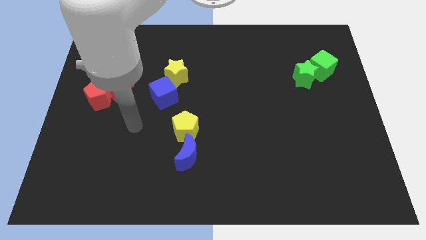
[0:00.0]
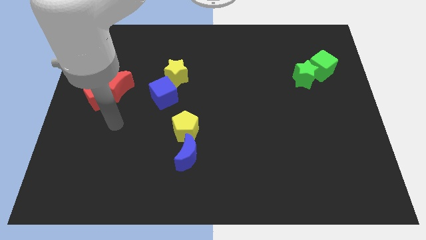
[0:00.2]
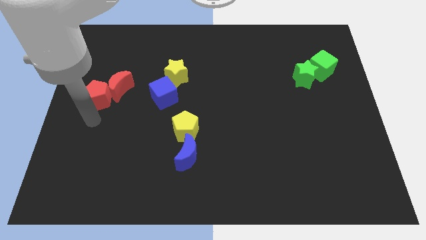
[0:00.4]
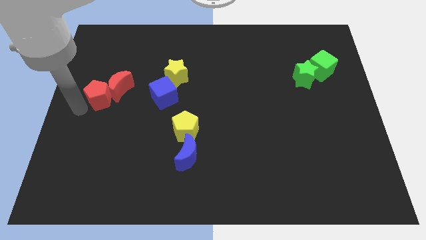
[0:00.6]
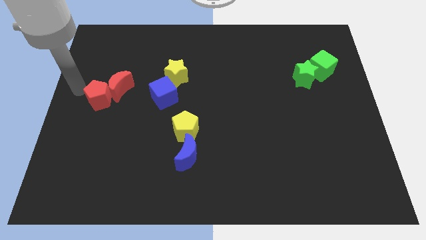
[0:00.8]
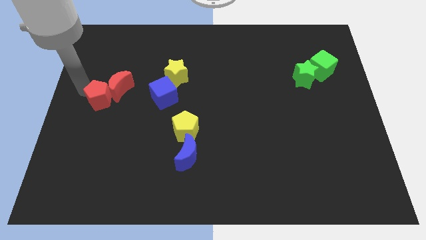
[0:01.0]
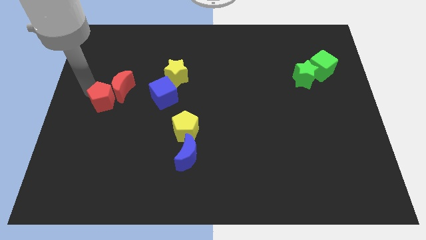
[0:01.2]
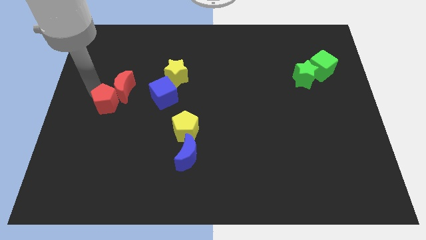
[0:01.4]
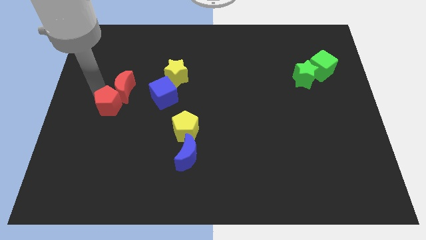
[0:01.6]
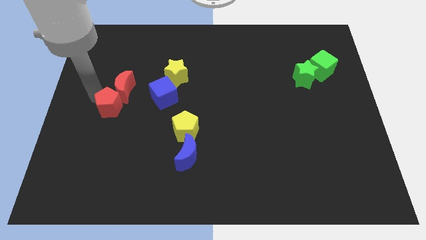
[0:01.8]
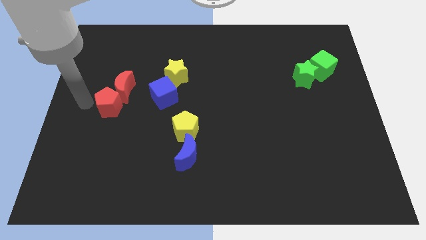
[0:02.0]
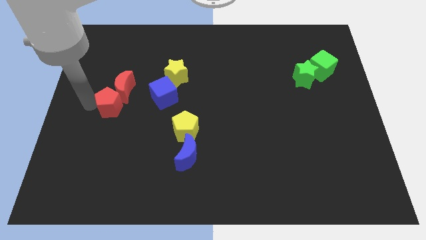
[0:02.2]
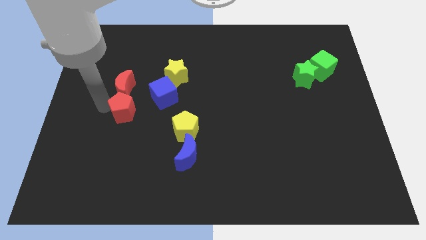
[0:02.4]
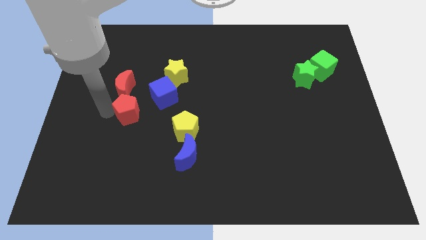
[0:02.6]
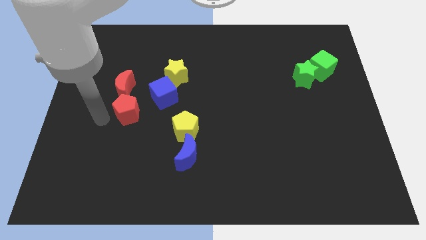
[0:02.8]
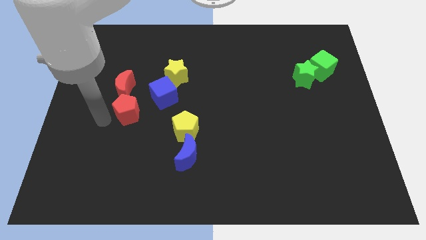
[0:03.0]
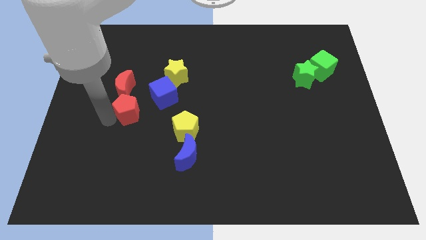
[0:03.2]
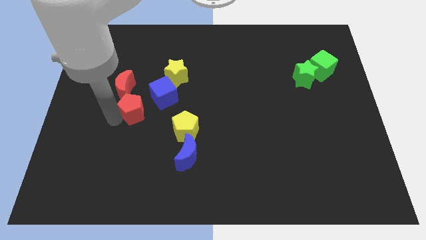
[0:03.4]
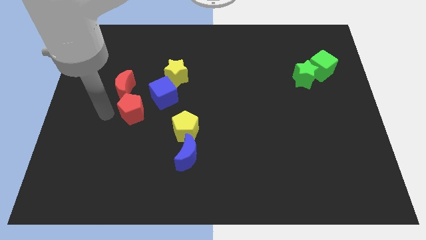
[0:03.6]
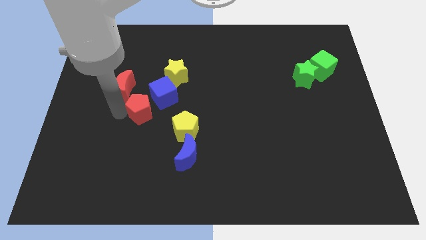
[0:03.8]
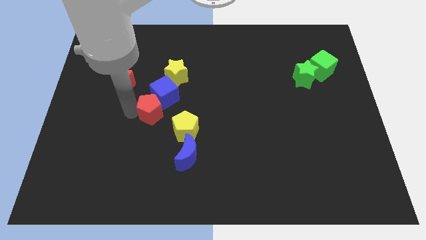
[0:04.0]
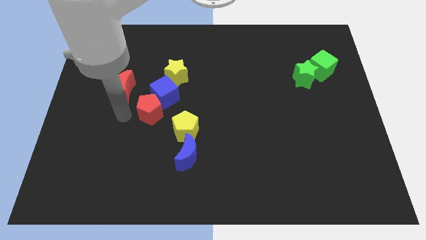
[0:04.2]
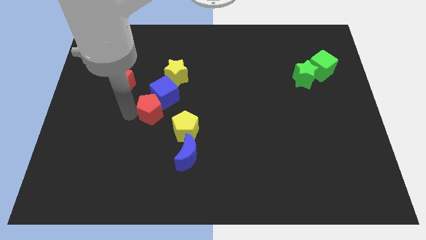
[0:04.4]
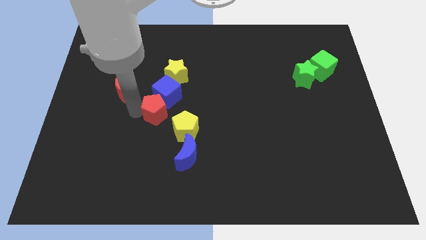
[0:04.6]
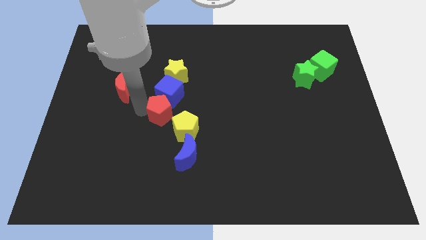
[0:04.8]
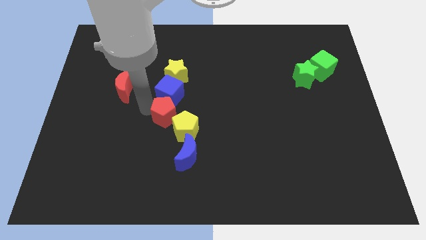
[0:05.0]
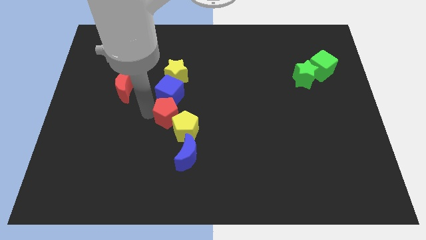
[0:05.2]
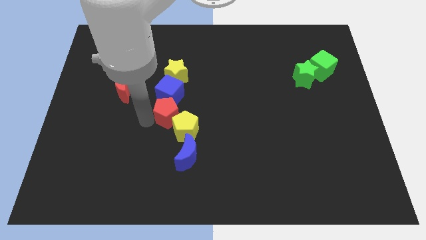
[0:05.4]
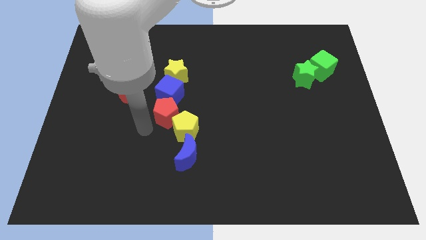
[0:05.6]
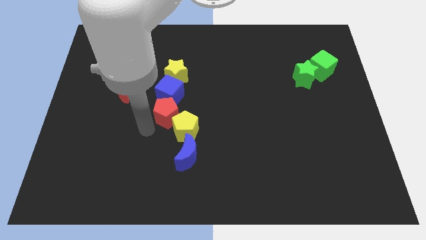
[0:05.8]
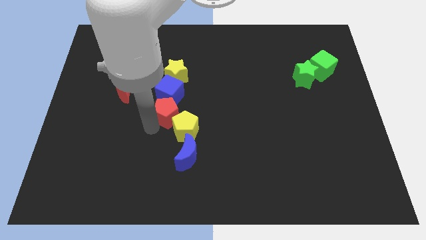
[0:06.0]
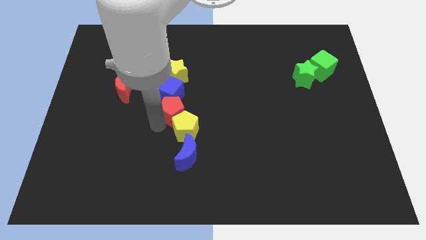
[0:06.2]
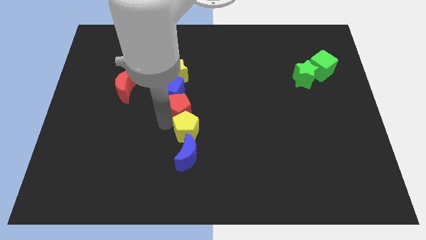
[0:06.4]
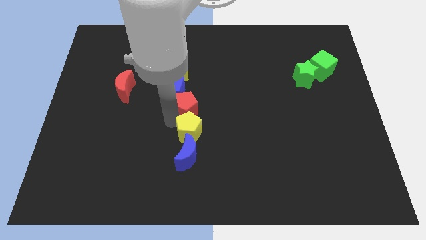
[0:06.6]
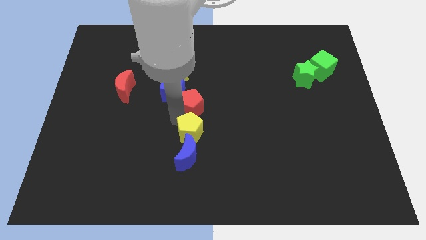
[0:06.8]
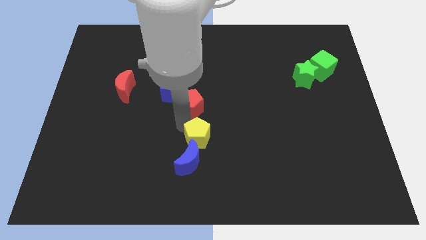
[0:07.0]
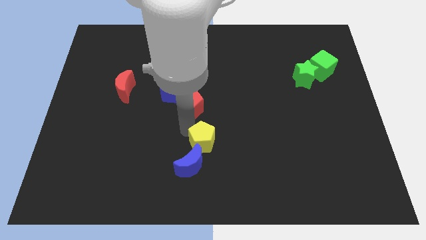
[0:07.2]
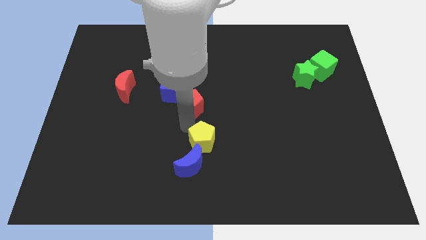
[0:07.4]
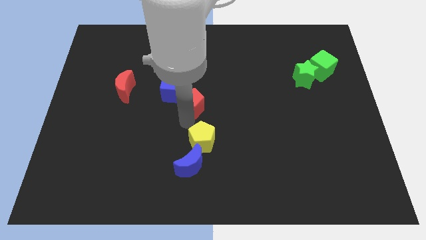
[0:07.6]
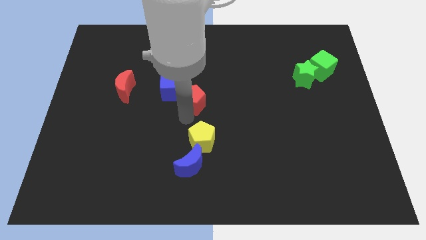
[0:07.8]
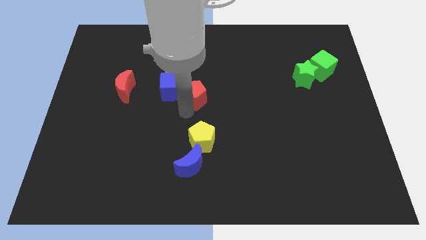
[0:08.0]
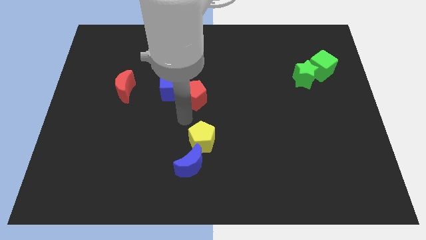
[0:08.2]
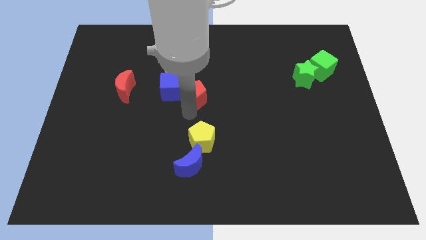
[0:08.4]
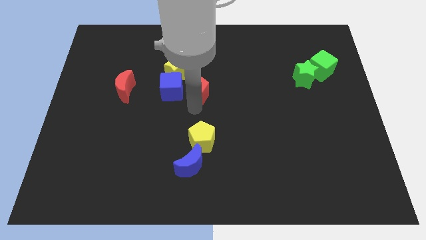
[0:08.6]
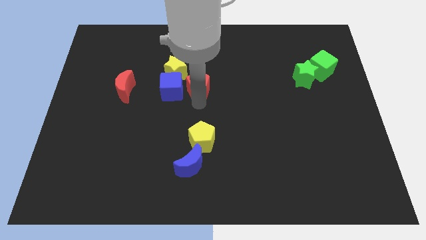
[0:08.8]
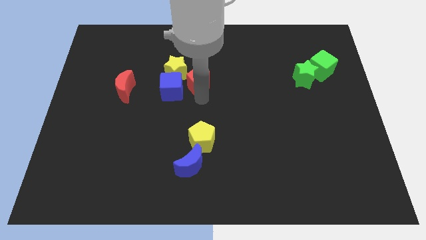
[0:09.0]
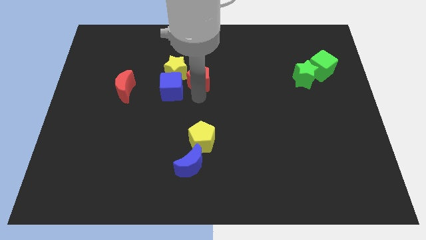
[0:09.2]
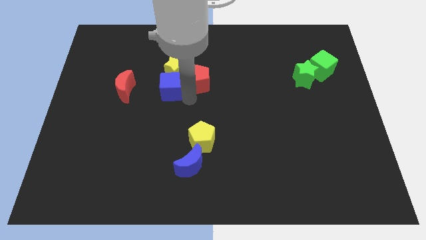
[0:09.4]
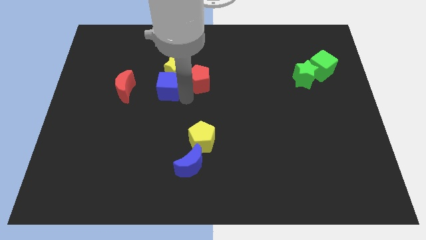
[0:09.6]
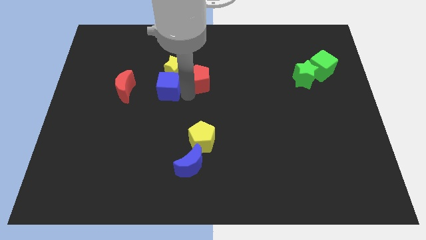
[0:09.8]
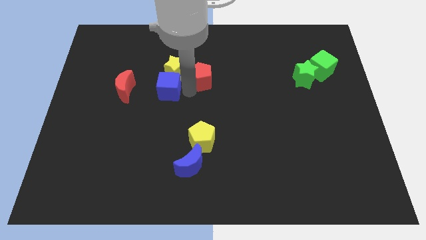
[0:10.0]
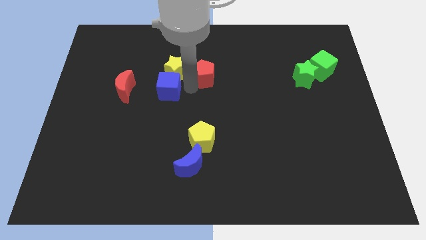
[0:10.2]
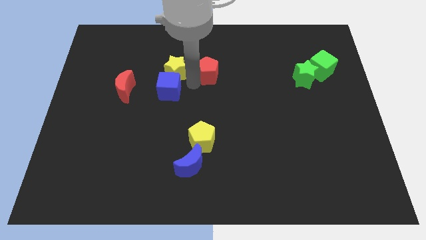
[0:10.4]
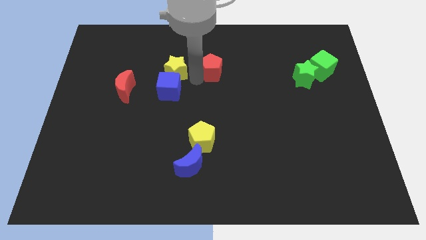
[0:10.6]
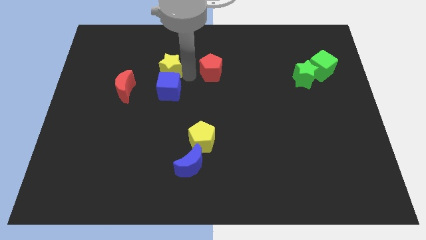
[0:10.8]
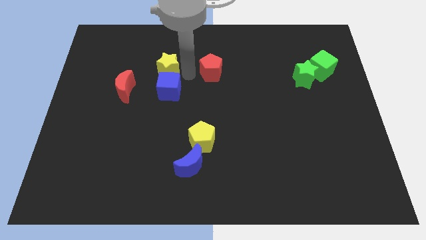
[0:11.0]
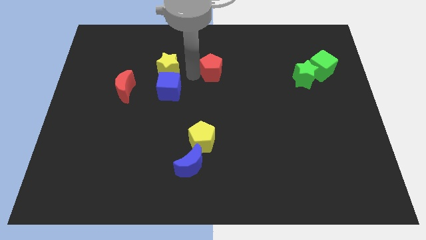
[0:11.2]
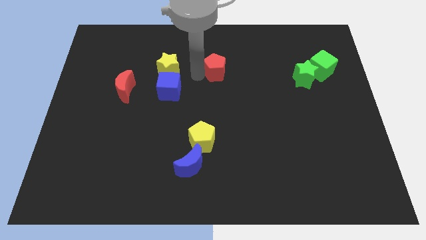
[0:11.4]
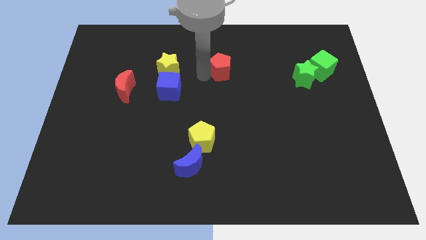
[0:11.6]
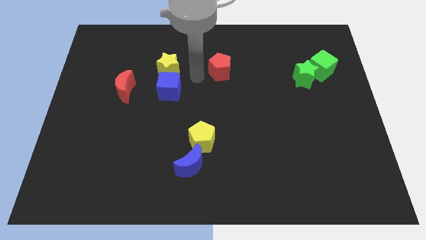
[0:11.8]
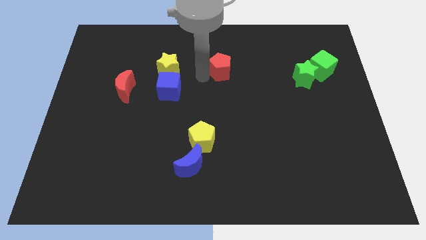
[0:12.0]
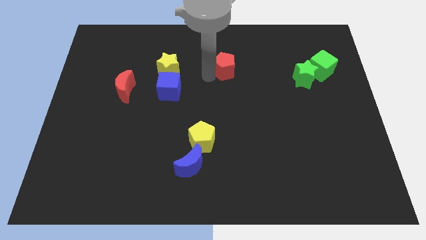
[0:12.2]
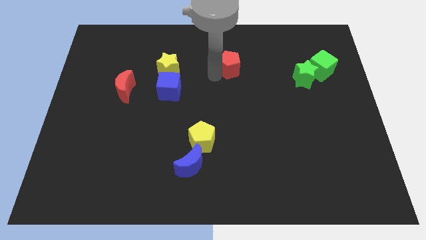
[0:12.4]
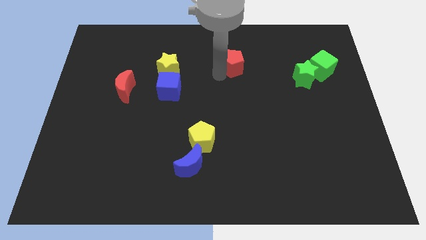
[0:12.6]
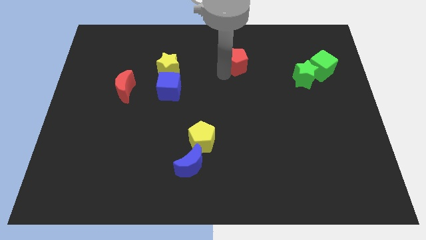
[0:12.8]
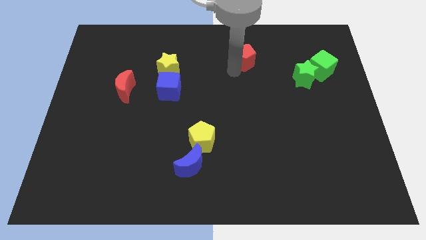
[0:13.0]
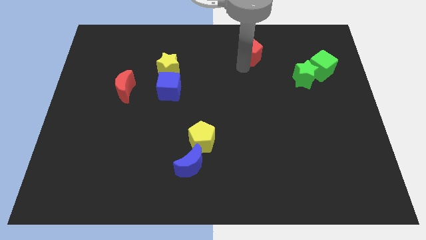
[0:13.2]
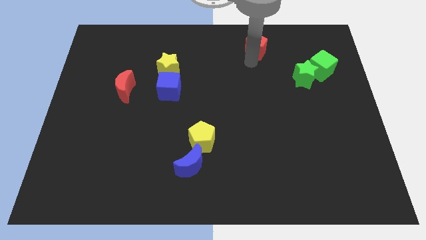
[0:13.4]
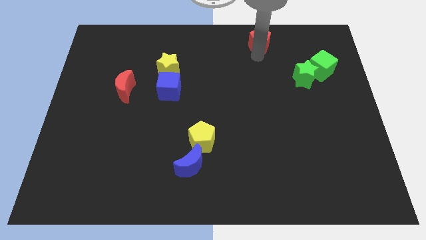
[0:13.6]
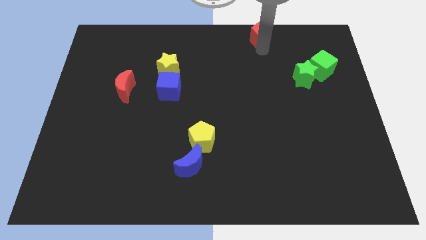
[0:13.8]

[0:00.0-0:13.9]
push the red pentagon to the towards your base
